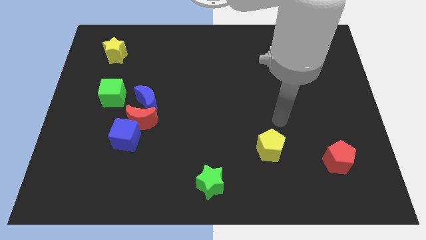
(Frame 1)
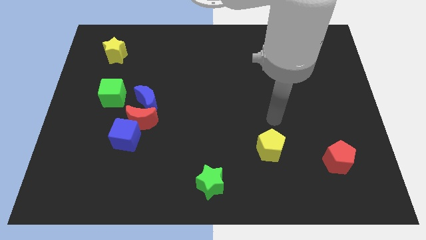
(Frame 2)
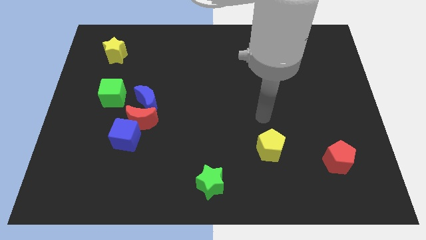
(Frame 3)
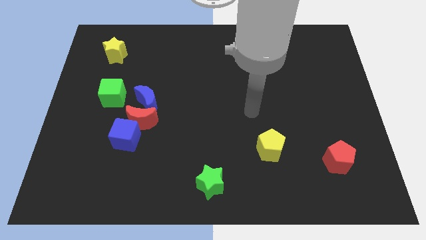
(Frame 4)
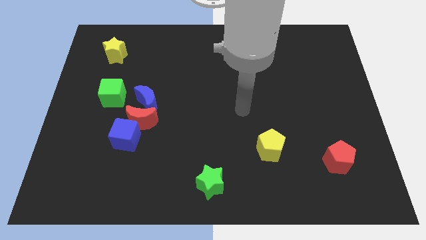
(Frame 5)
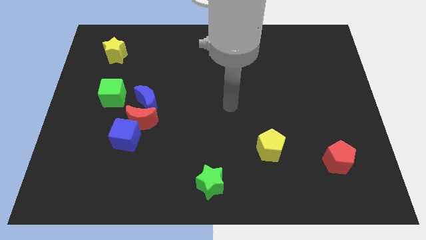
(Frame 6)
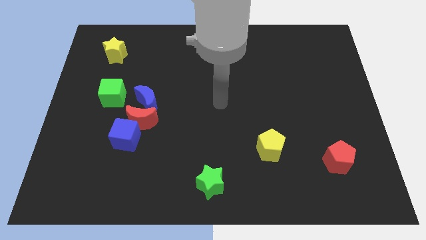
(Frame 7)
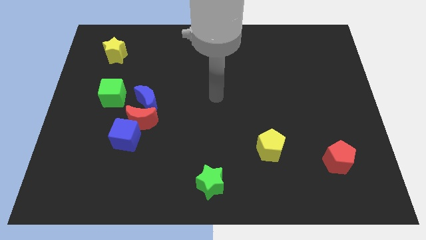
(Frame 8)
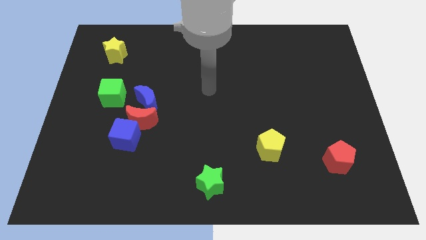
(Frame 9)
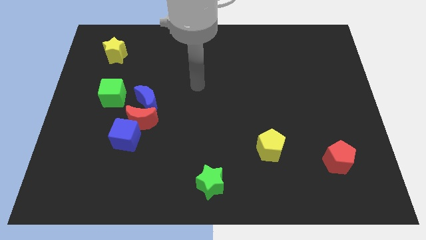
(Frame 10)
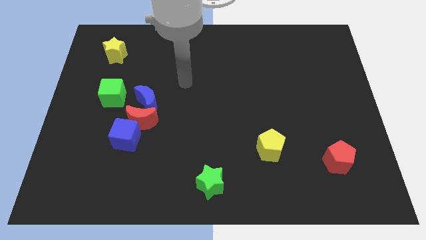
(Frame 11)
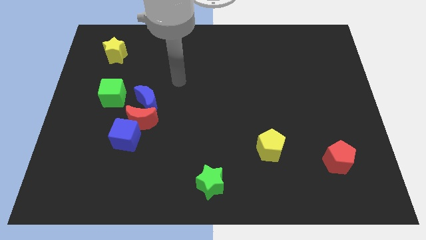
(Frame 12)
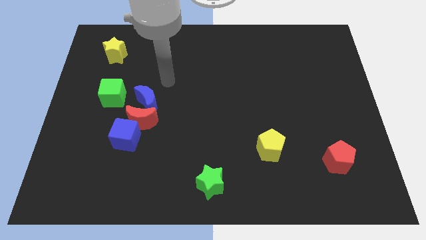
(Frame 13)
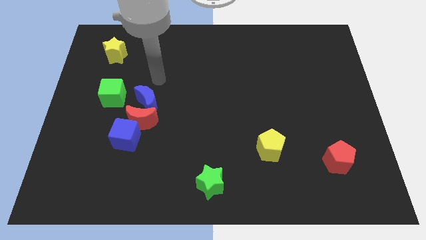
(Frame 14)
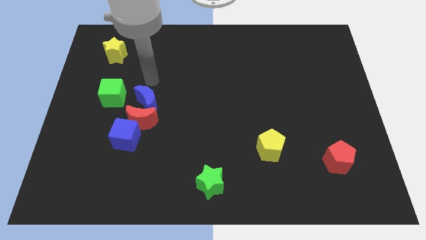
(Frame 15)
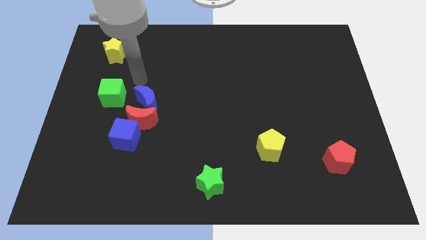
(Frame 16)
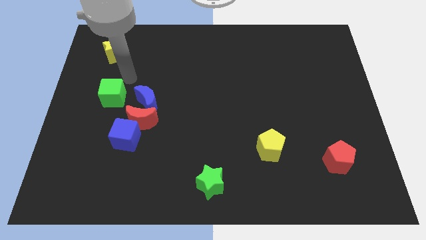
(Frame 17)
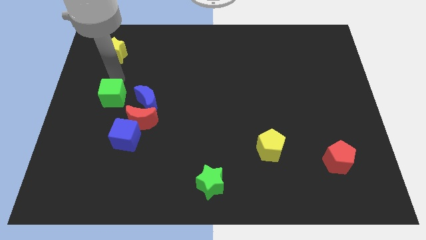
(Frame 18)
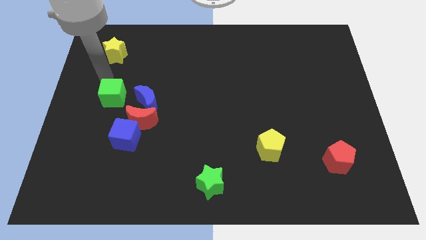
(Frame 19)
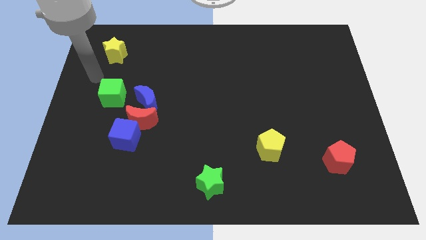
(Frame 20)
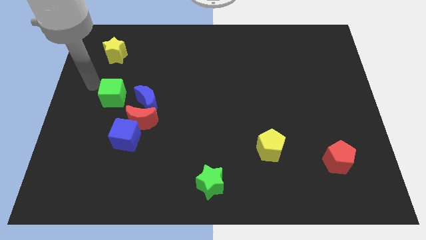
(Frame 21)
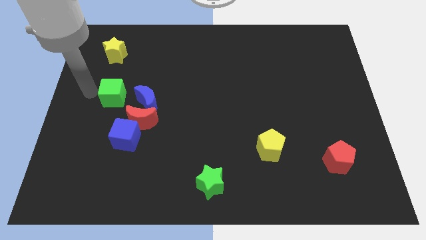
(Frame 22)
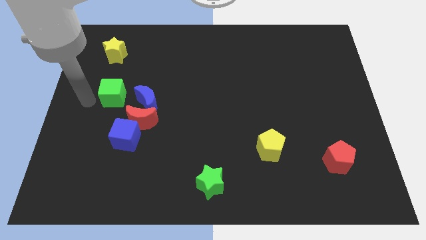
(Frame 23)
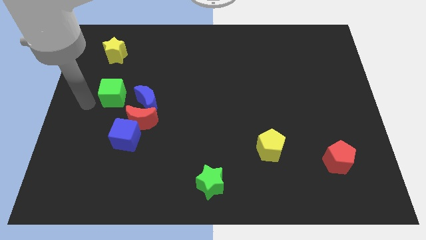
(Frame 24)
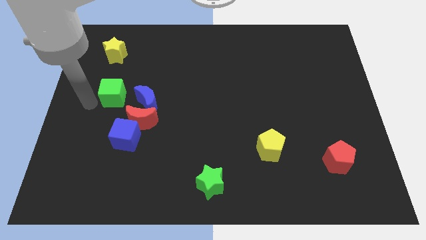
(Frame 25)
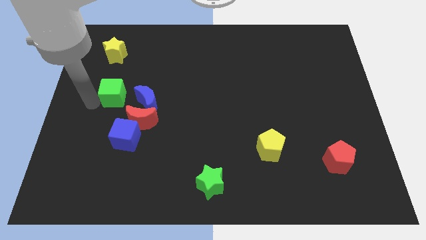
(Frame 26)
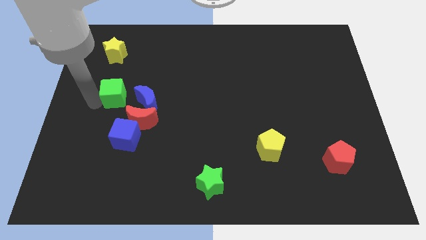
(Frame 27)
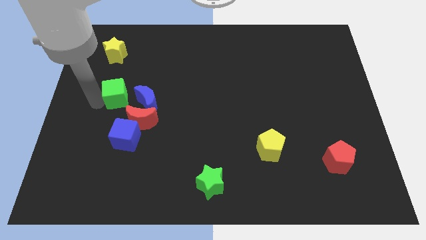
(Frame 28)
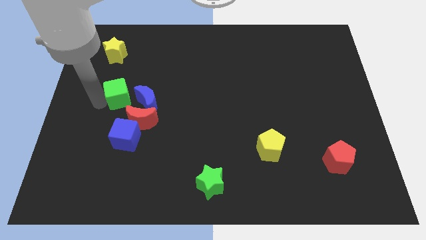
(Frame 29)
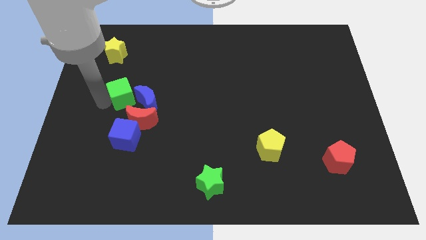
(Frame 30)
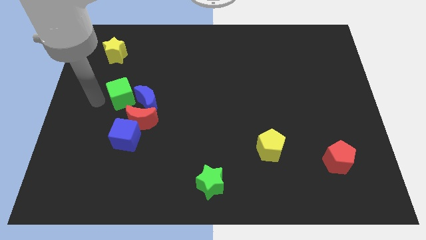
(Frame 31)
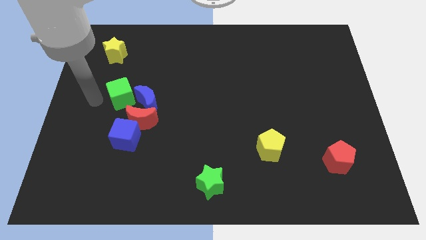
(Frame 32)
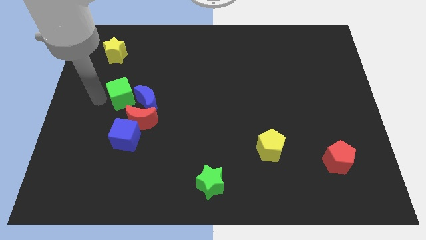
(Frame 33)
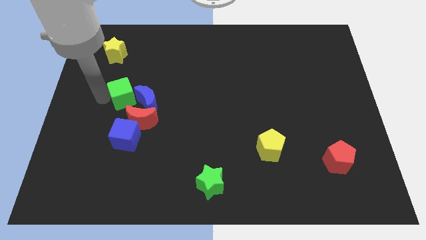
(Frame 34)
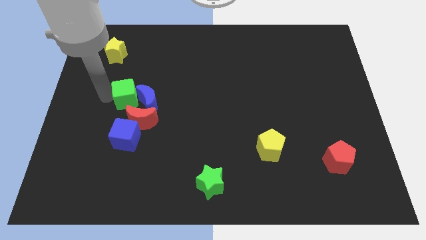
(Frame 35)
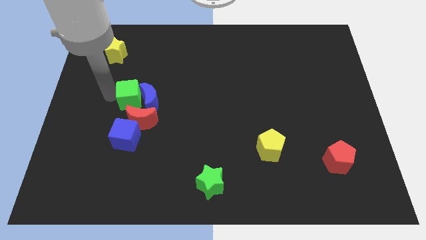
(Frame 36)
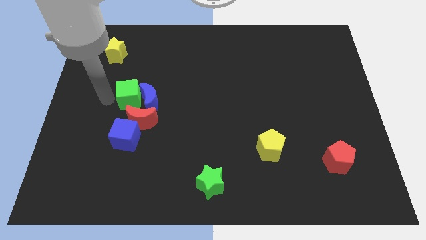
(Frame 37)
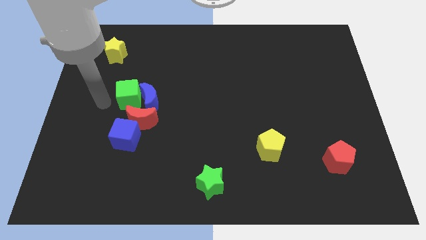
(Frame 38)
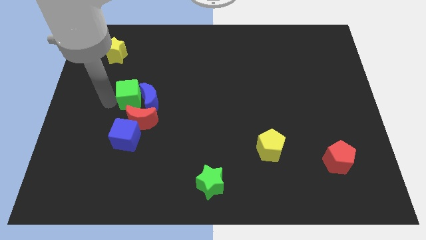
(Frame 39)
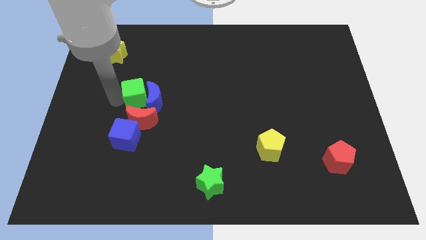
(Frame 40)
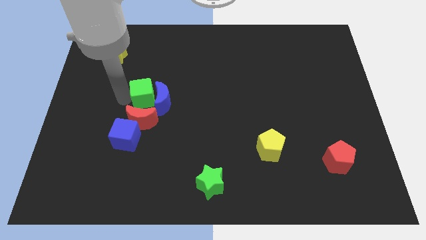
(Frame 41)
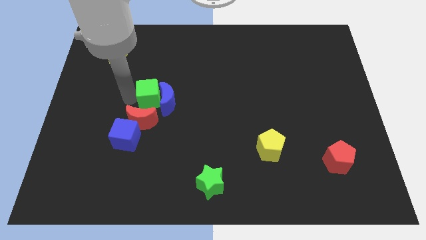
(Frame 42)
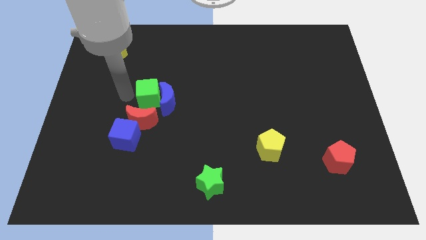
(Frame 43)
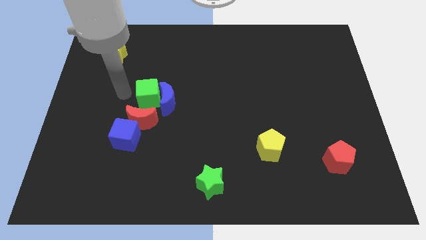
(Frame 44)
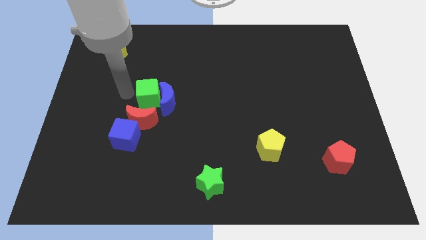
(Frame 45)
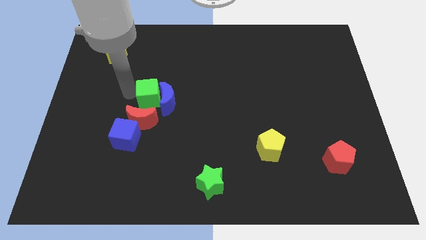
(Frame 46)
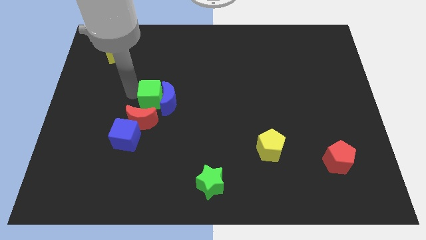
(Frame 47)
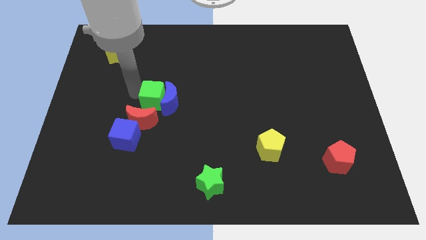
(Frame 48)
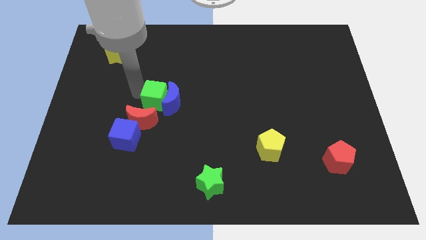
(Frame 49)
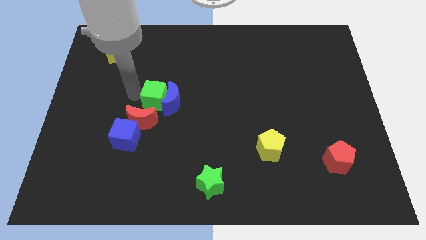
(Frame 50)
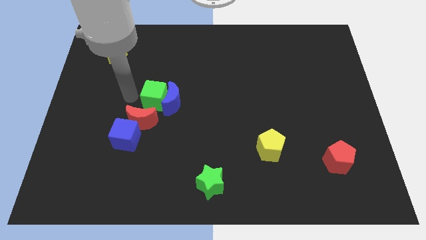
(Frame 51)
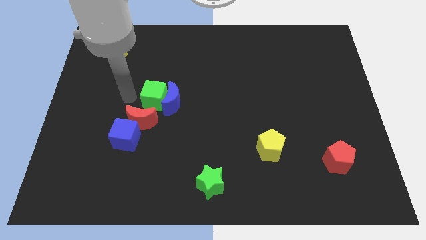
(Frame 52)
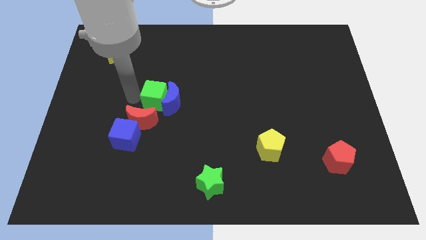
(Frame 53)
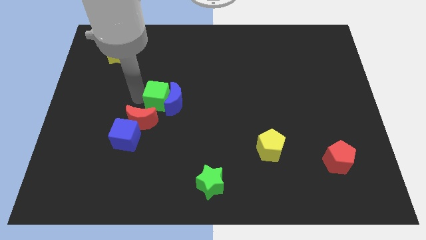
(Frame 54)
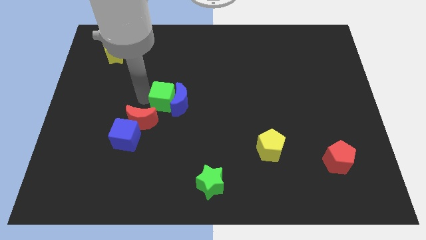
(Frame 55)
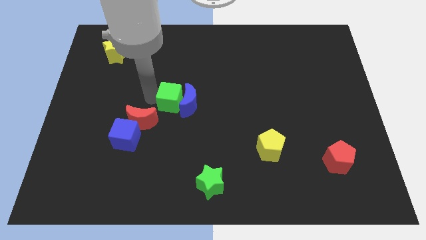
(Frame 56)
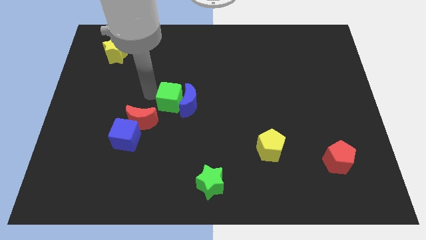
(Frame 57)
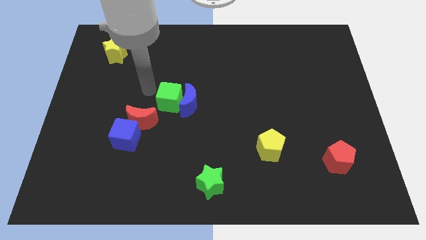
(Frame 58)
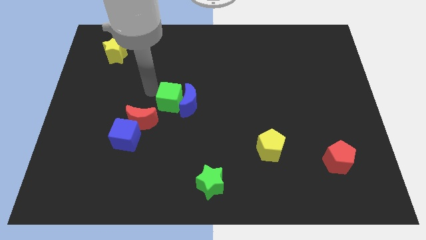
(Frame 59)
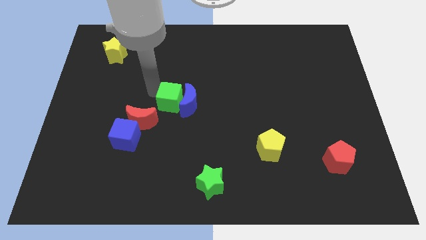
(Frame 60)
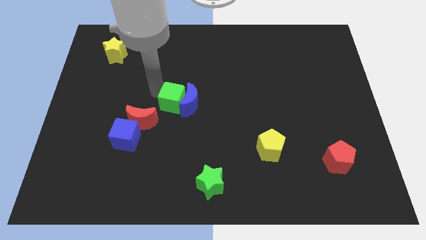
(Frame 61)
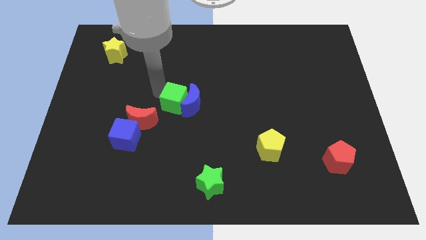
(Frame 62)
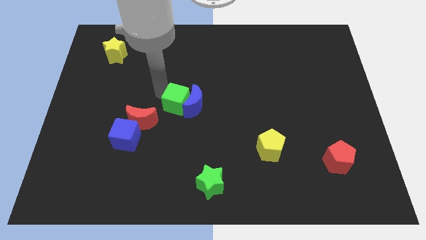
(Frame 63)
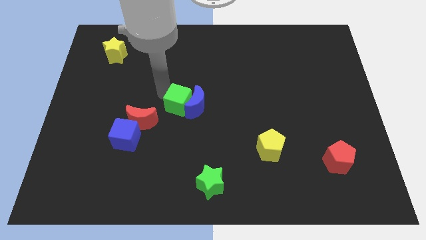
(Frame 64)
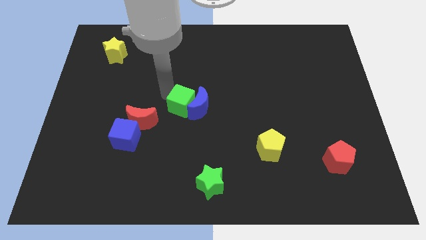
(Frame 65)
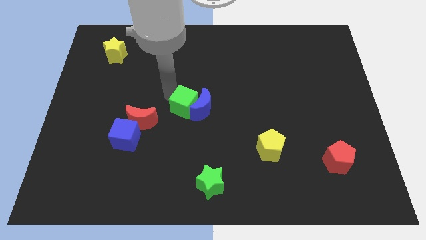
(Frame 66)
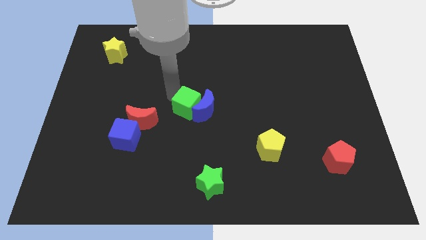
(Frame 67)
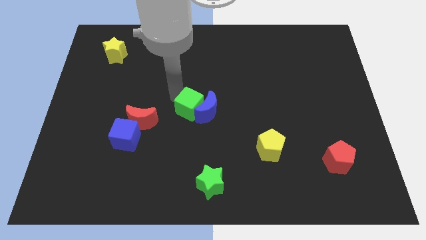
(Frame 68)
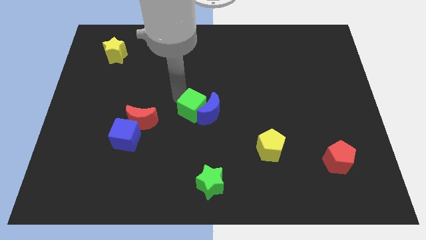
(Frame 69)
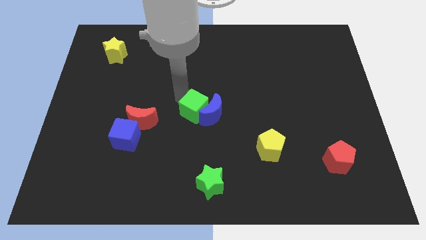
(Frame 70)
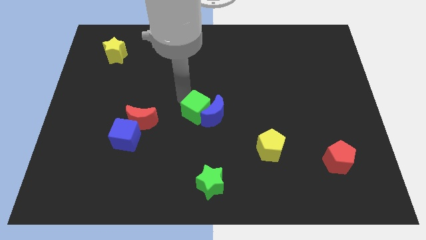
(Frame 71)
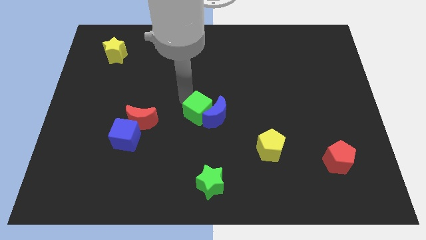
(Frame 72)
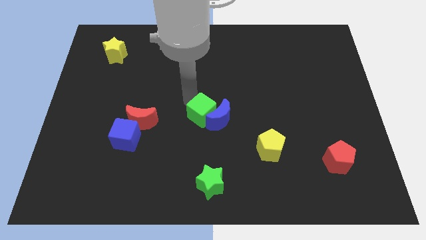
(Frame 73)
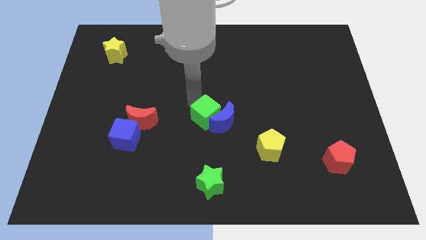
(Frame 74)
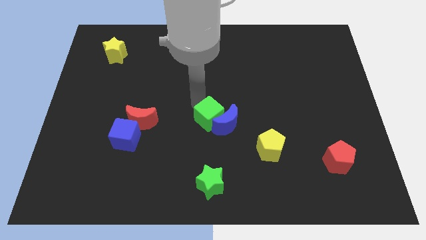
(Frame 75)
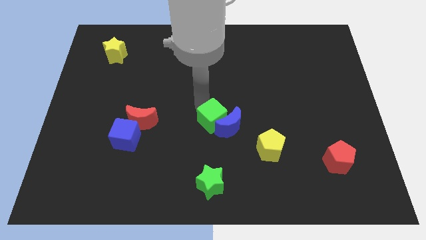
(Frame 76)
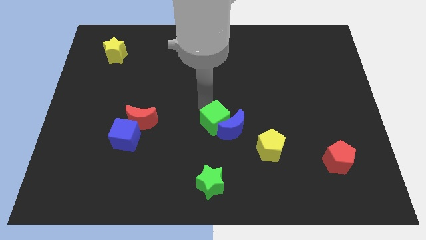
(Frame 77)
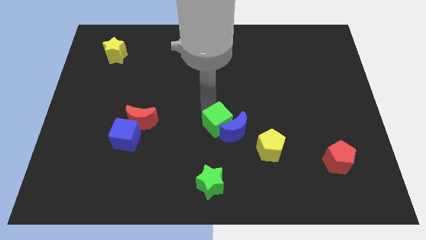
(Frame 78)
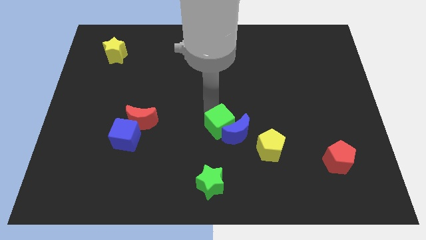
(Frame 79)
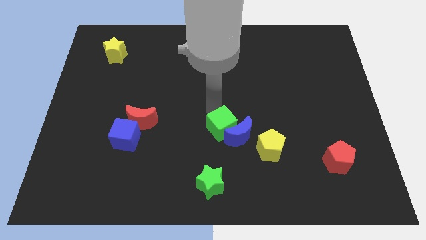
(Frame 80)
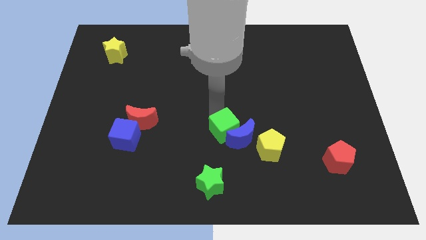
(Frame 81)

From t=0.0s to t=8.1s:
move the green cube just left of the yellow pentagon
